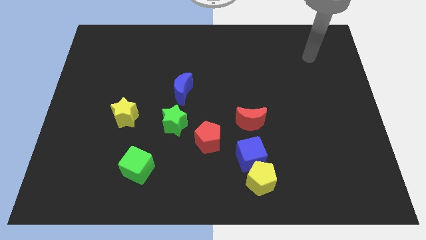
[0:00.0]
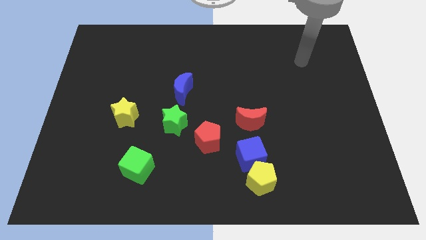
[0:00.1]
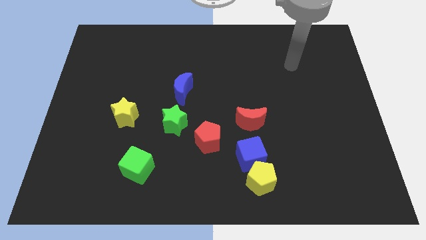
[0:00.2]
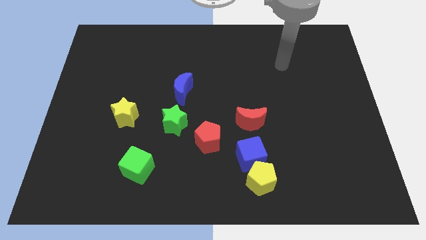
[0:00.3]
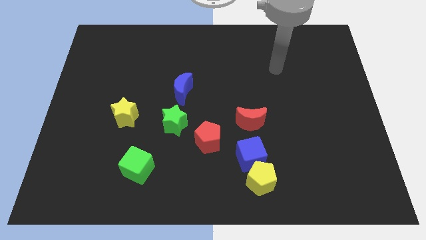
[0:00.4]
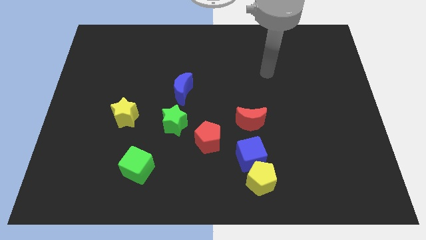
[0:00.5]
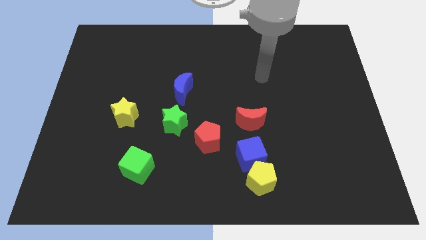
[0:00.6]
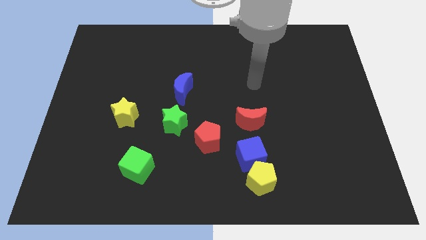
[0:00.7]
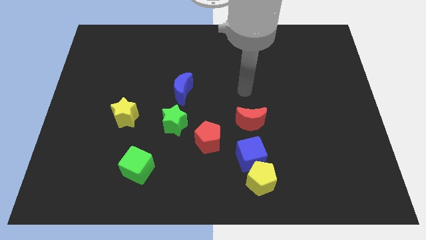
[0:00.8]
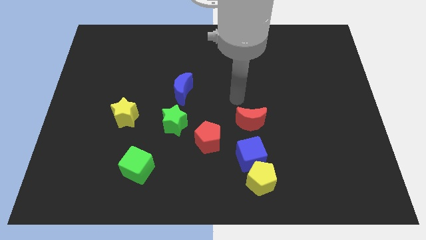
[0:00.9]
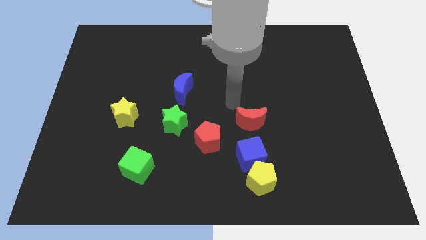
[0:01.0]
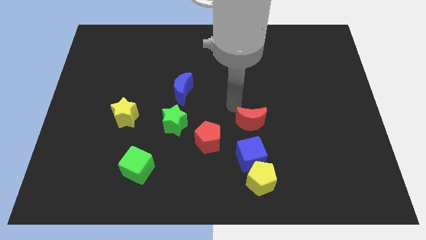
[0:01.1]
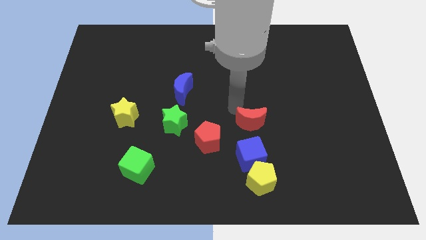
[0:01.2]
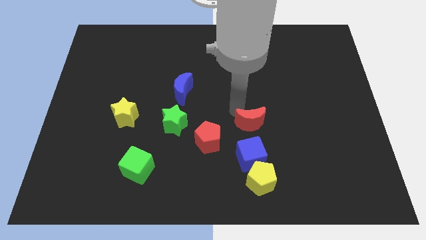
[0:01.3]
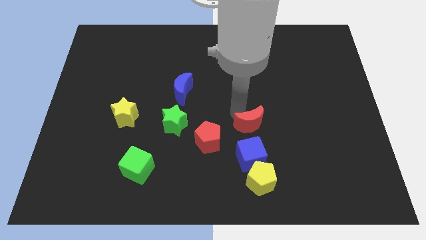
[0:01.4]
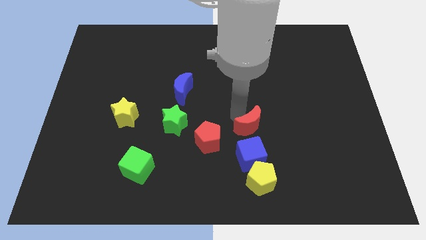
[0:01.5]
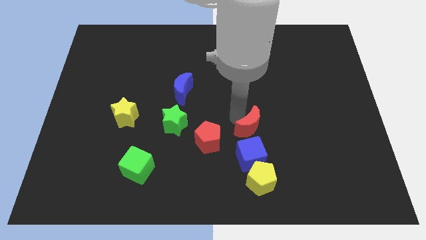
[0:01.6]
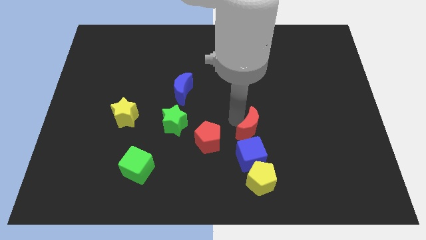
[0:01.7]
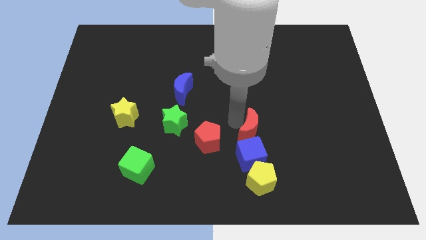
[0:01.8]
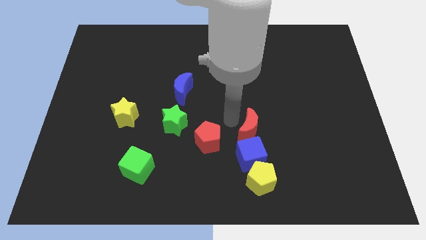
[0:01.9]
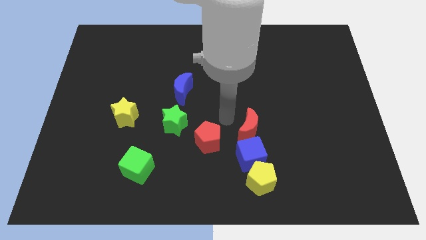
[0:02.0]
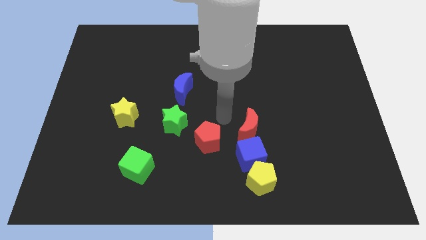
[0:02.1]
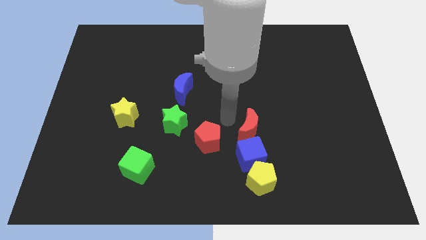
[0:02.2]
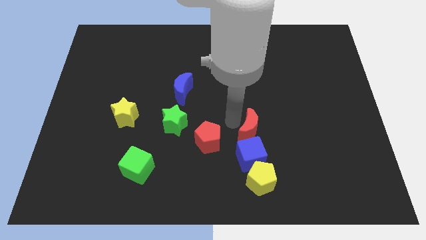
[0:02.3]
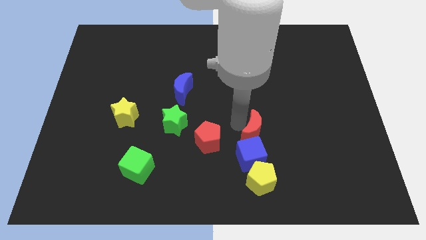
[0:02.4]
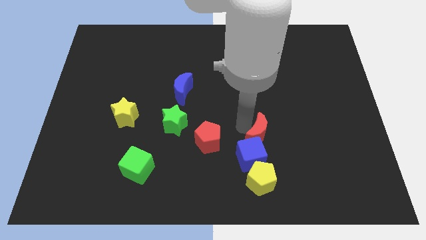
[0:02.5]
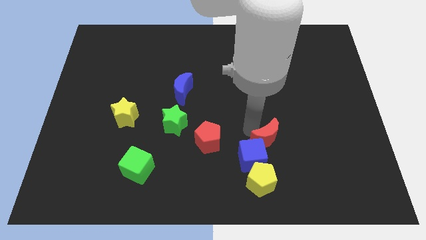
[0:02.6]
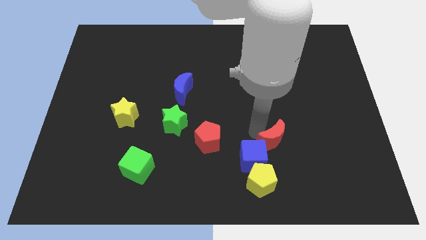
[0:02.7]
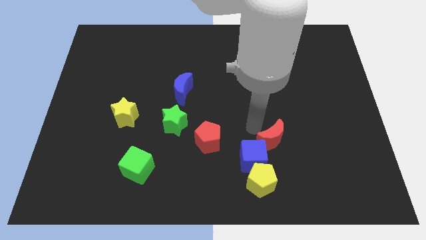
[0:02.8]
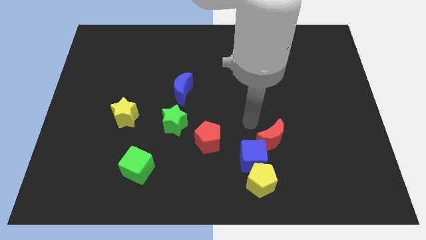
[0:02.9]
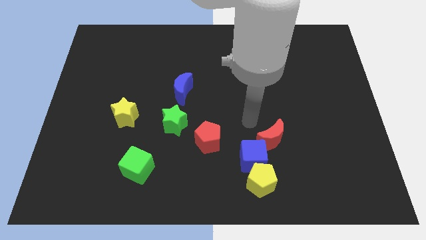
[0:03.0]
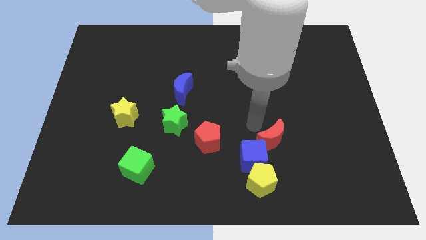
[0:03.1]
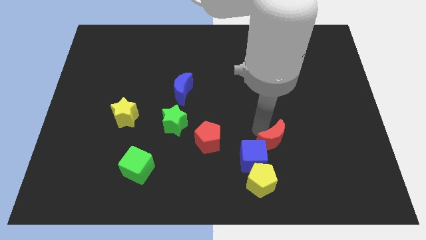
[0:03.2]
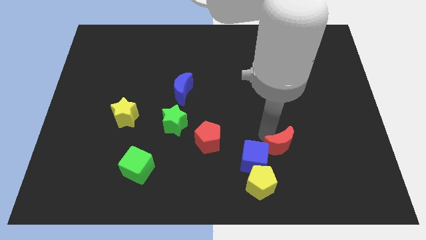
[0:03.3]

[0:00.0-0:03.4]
slightly push the red moon down and then right

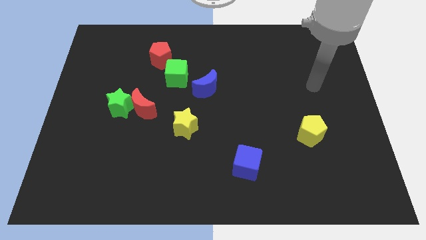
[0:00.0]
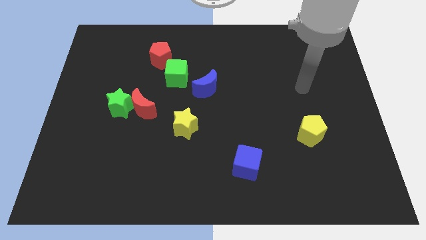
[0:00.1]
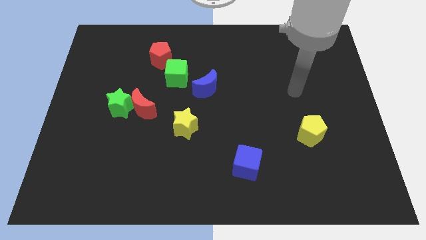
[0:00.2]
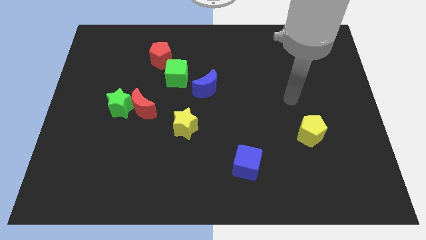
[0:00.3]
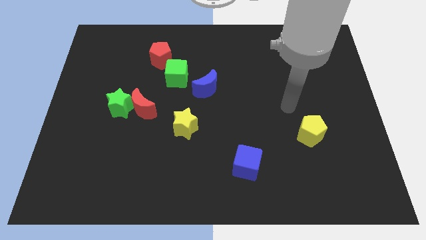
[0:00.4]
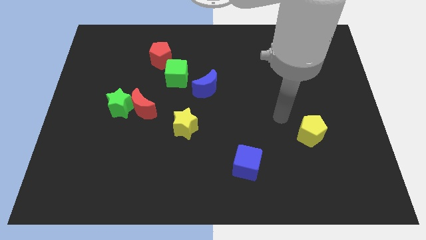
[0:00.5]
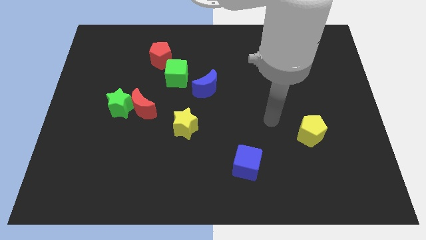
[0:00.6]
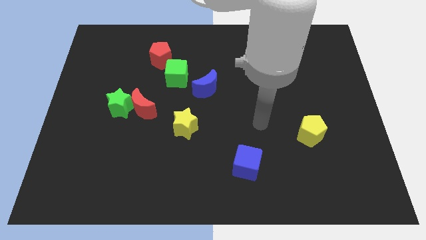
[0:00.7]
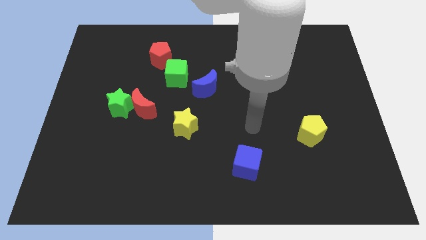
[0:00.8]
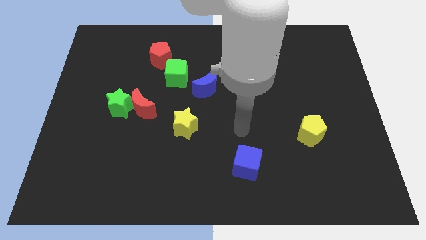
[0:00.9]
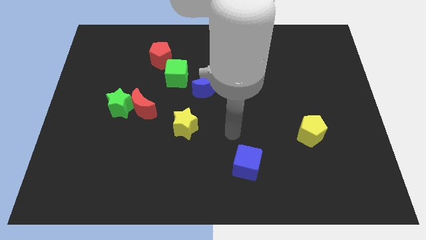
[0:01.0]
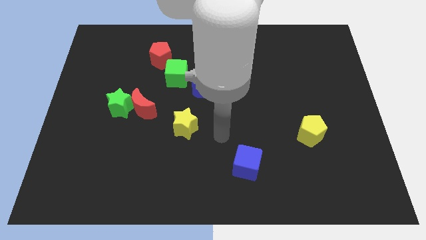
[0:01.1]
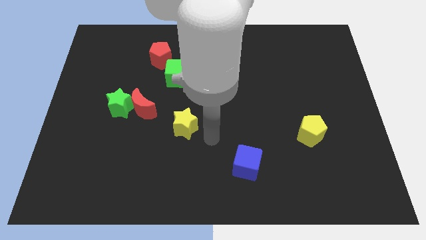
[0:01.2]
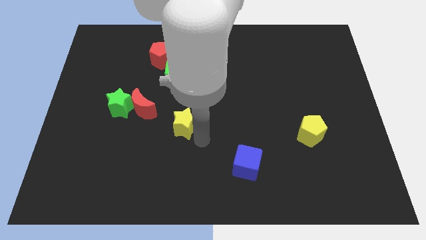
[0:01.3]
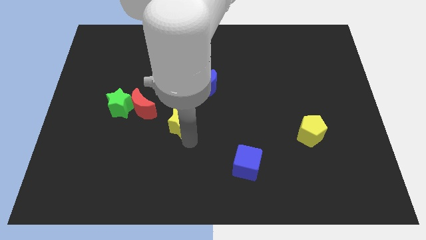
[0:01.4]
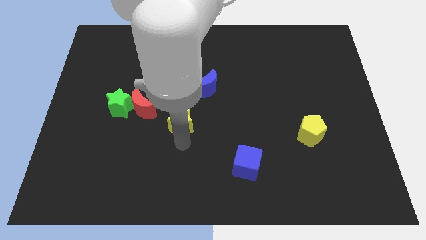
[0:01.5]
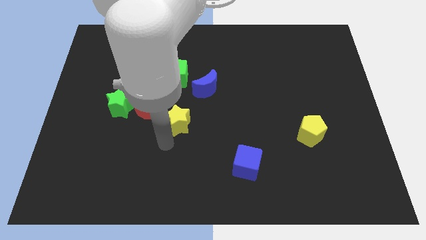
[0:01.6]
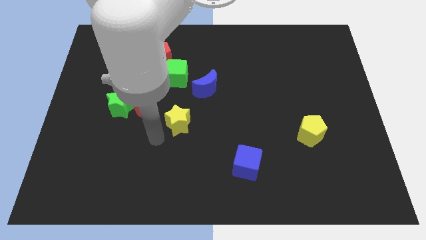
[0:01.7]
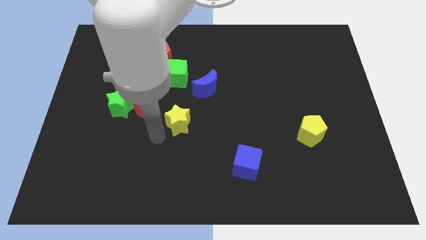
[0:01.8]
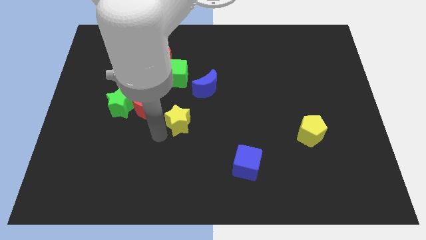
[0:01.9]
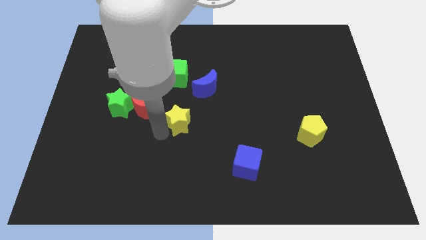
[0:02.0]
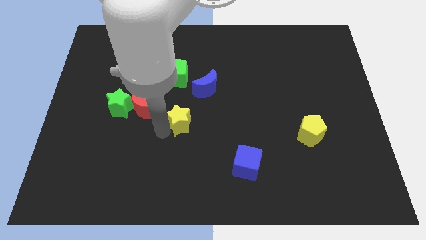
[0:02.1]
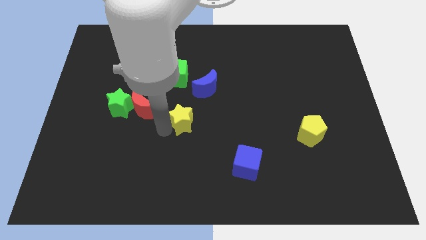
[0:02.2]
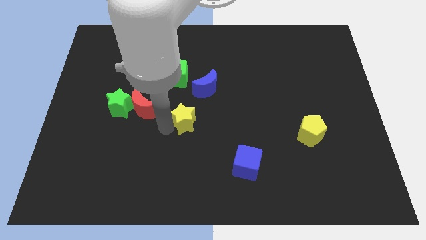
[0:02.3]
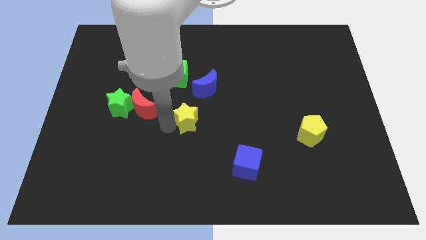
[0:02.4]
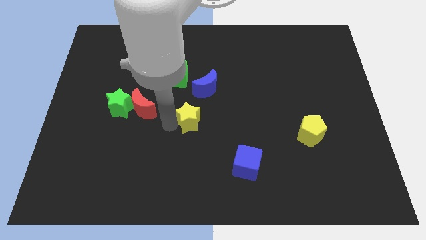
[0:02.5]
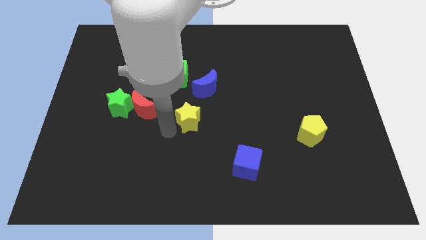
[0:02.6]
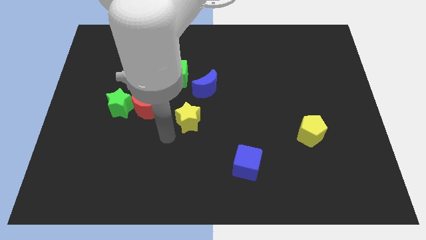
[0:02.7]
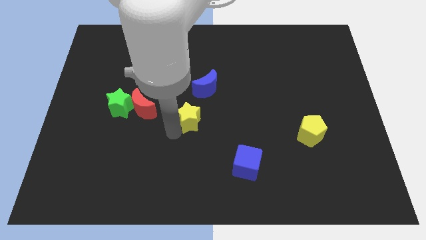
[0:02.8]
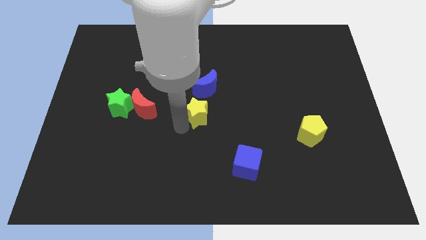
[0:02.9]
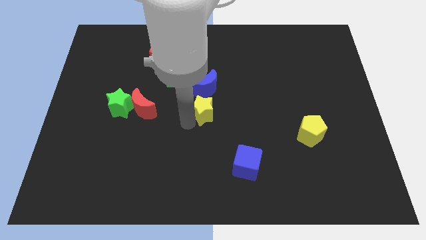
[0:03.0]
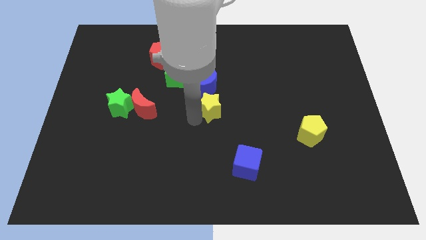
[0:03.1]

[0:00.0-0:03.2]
move the yellow star upwards and then to the right a little bit

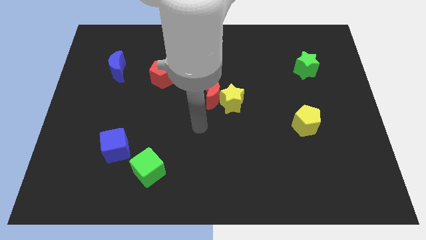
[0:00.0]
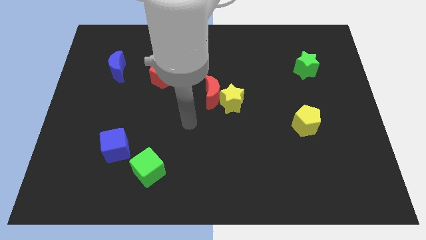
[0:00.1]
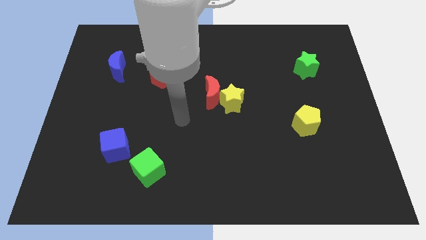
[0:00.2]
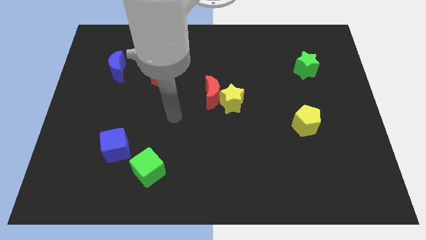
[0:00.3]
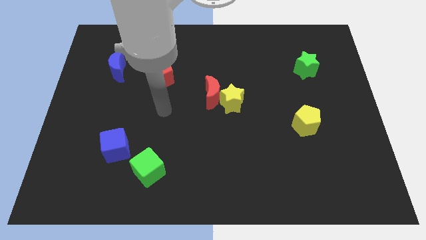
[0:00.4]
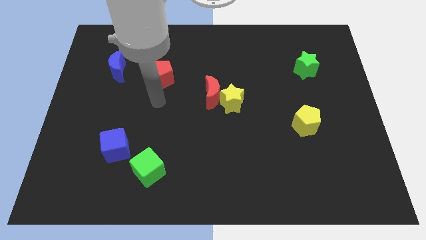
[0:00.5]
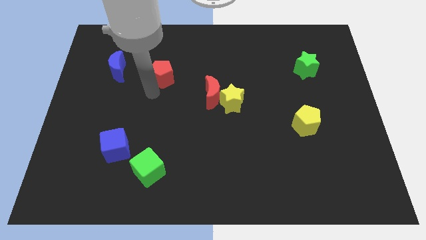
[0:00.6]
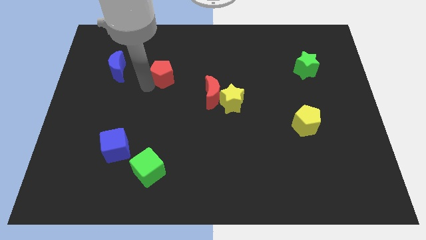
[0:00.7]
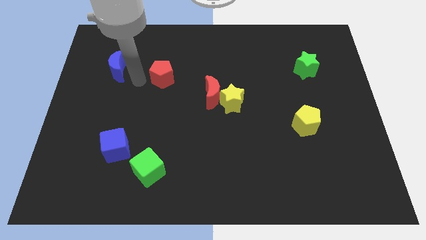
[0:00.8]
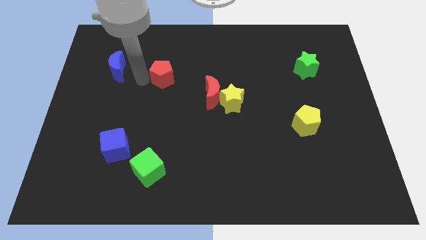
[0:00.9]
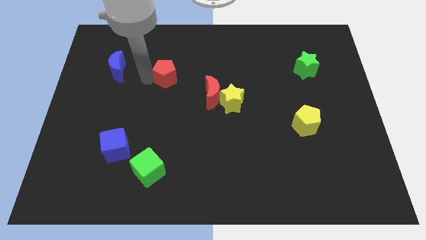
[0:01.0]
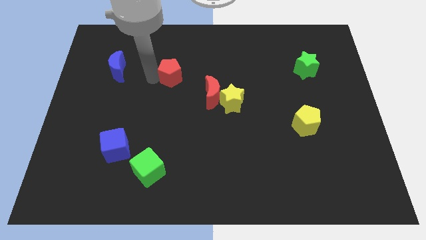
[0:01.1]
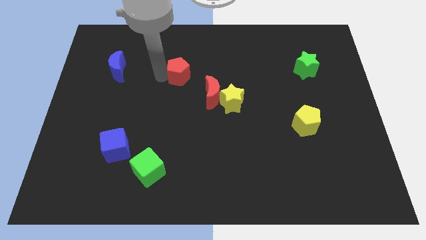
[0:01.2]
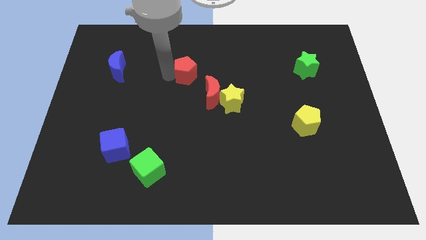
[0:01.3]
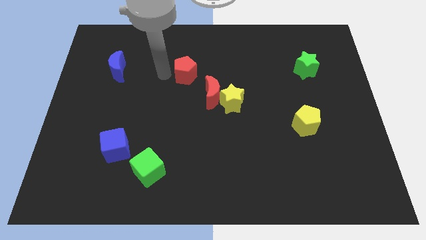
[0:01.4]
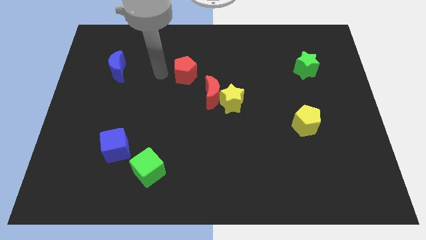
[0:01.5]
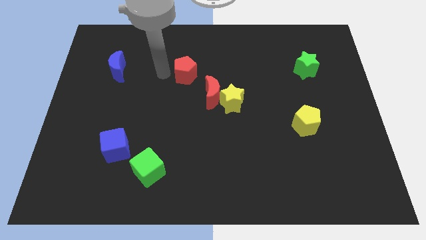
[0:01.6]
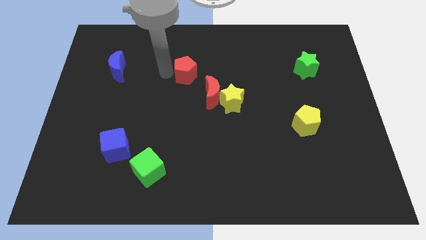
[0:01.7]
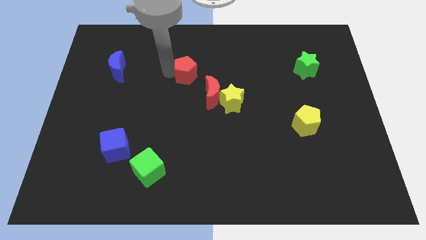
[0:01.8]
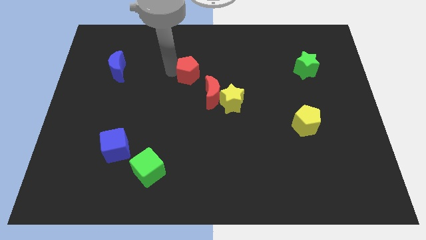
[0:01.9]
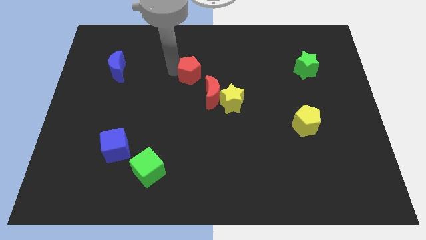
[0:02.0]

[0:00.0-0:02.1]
move the red pentagon right a little

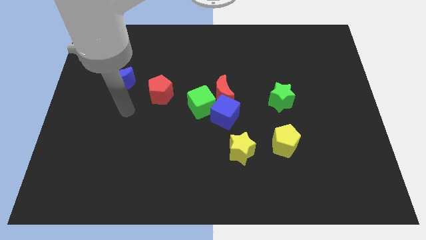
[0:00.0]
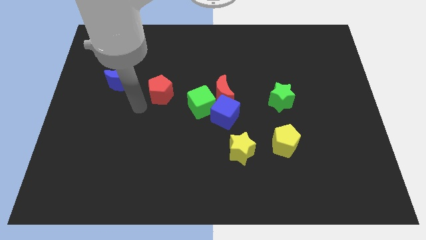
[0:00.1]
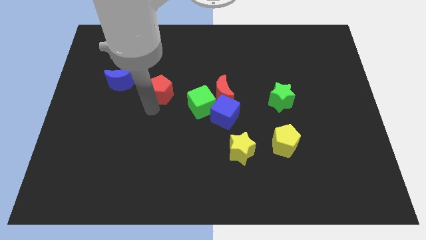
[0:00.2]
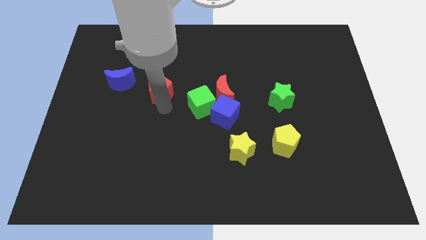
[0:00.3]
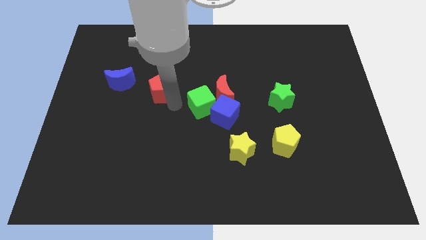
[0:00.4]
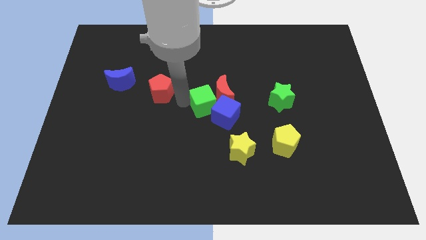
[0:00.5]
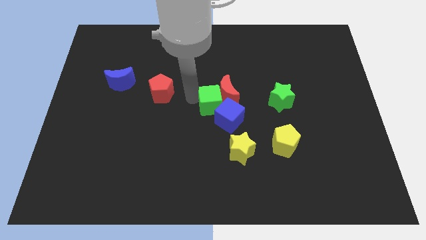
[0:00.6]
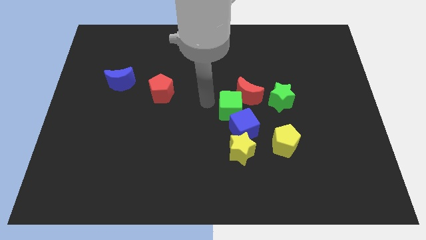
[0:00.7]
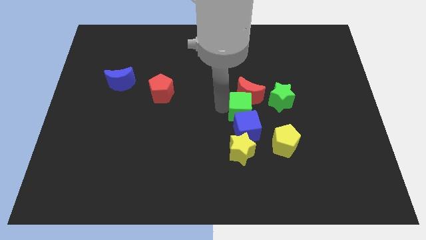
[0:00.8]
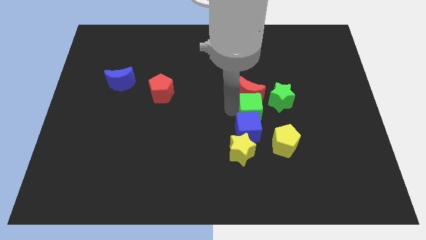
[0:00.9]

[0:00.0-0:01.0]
move the blue cube somewhat down and to the right
